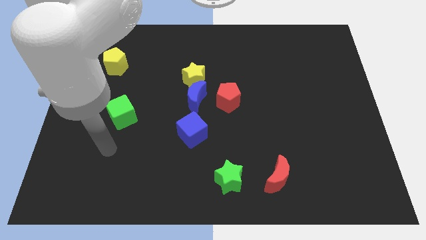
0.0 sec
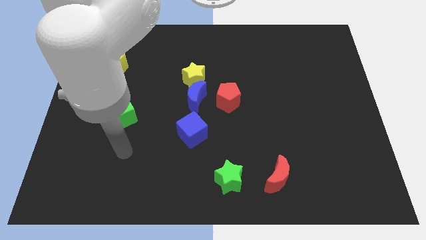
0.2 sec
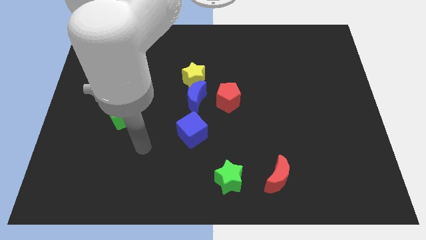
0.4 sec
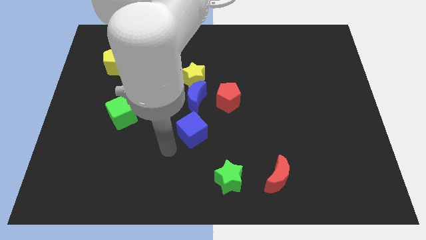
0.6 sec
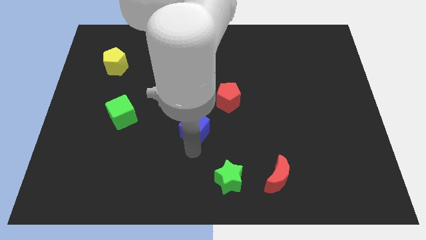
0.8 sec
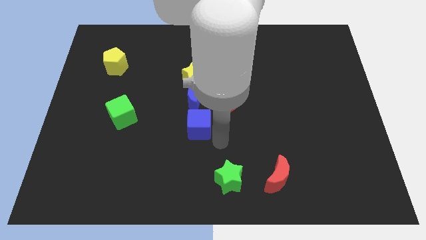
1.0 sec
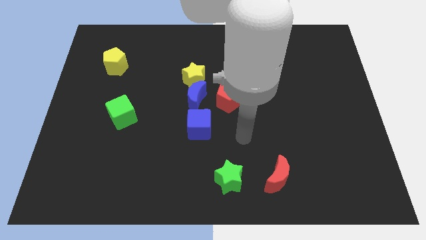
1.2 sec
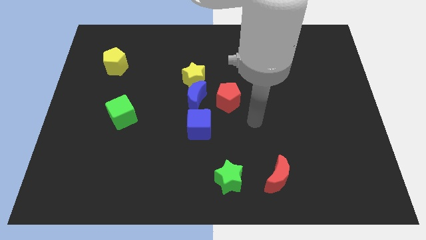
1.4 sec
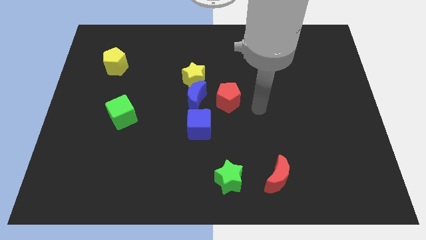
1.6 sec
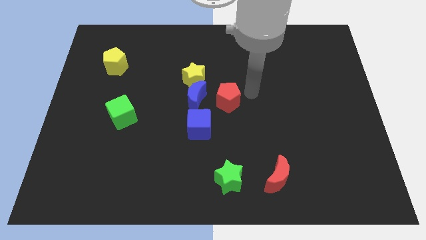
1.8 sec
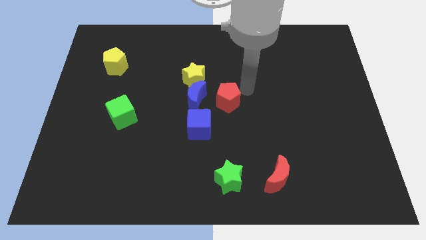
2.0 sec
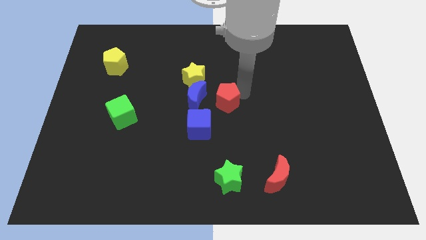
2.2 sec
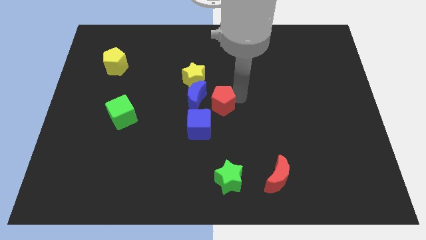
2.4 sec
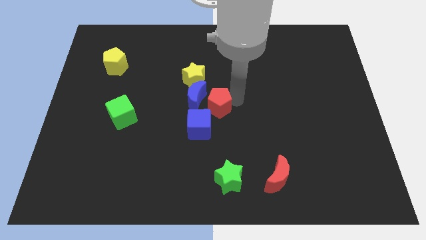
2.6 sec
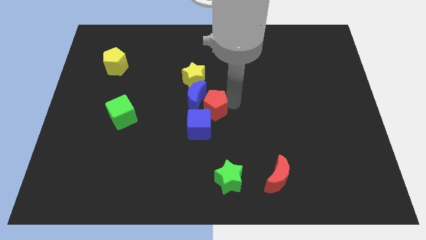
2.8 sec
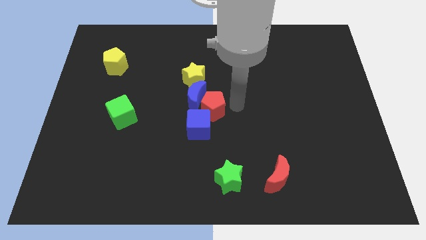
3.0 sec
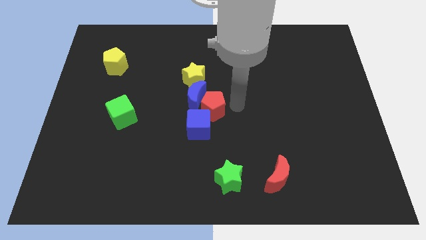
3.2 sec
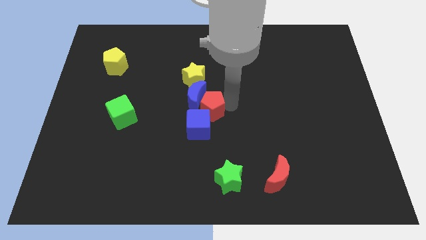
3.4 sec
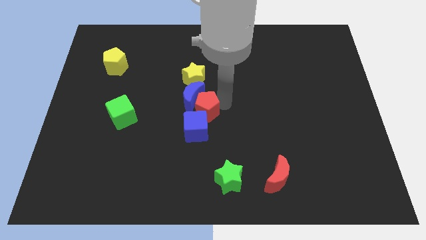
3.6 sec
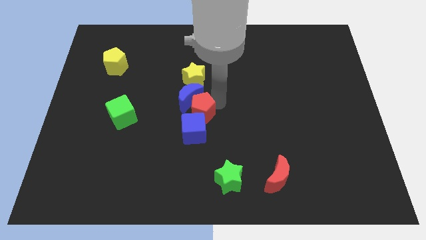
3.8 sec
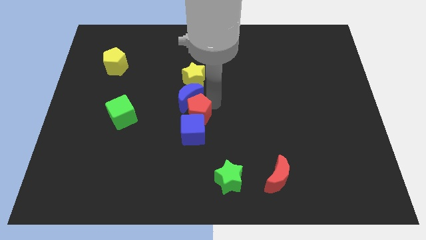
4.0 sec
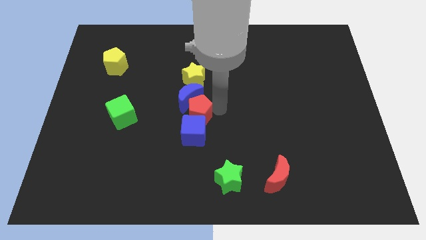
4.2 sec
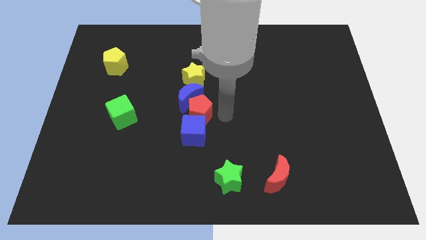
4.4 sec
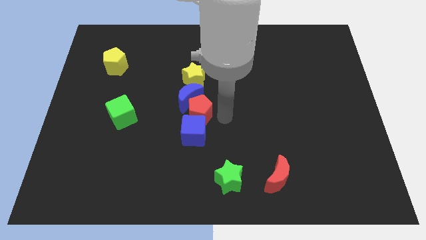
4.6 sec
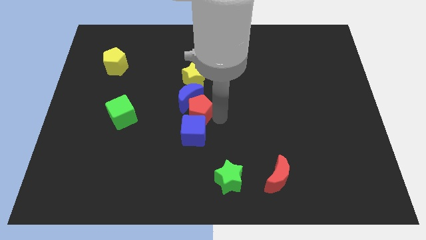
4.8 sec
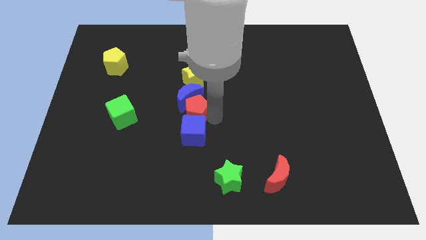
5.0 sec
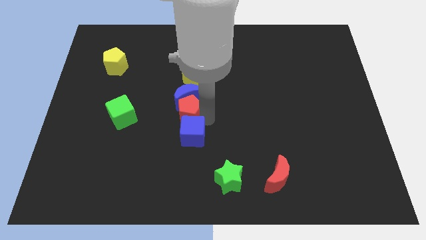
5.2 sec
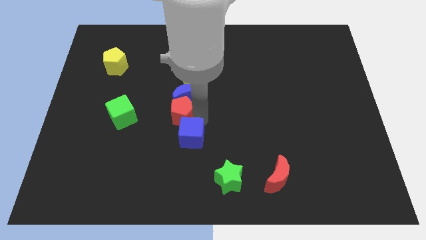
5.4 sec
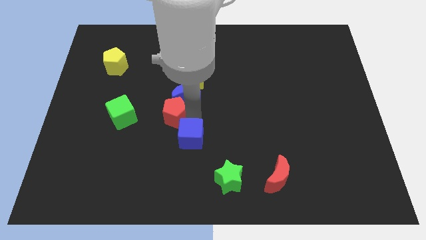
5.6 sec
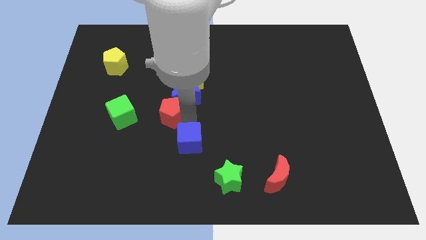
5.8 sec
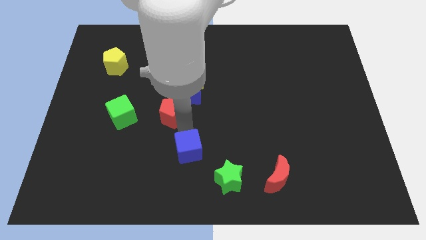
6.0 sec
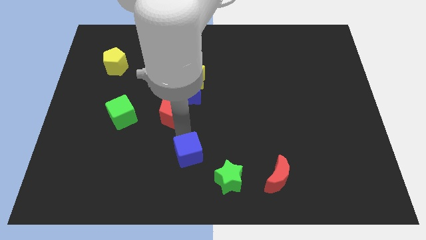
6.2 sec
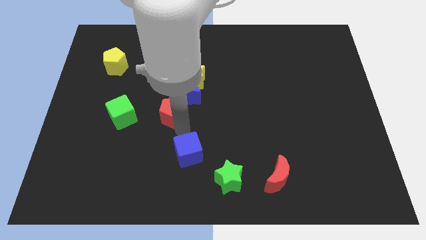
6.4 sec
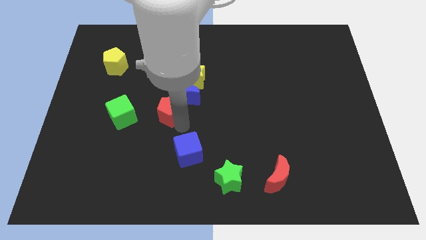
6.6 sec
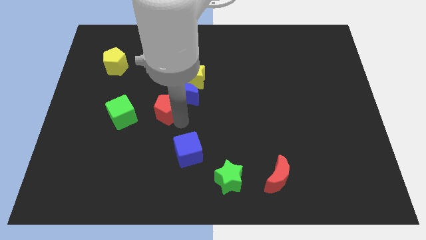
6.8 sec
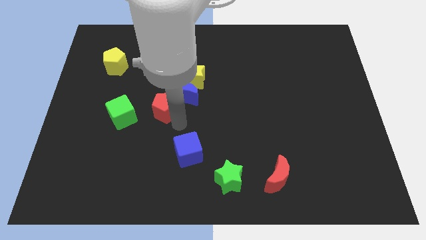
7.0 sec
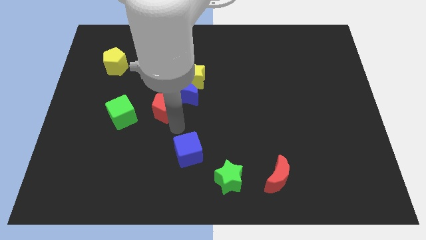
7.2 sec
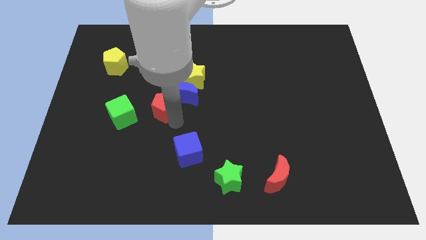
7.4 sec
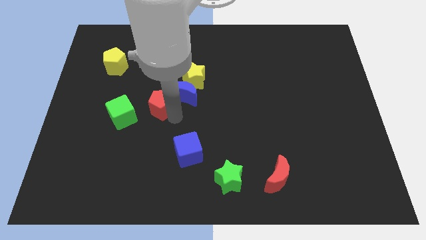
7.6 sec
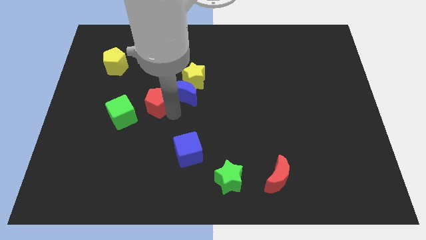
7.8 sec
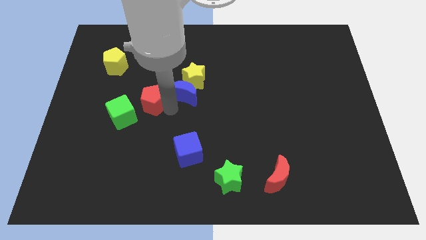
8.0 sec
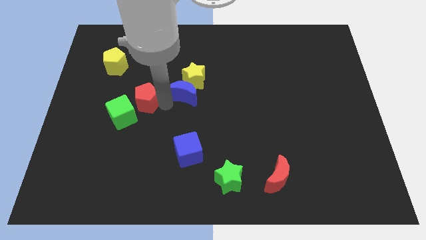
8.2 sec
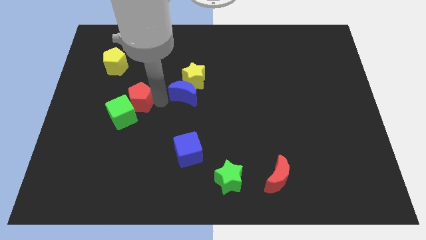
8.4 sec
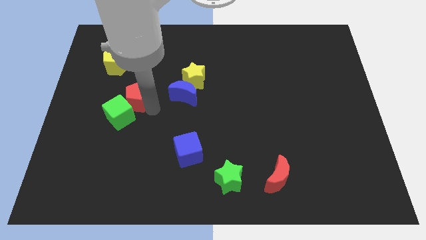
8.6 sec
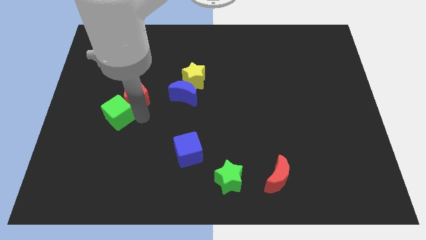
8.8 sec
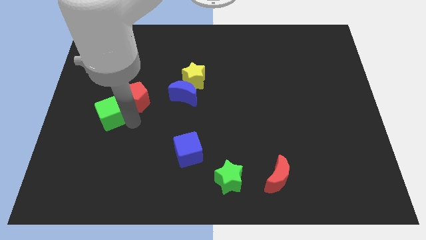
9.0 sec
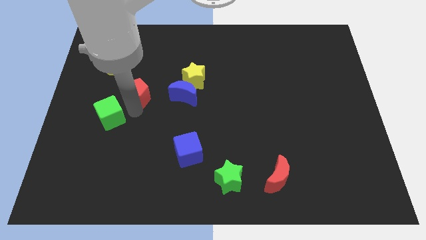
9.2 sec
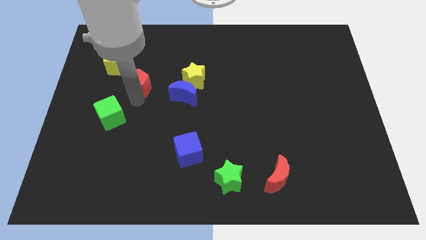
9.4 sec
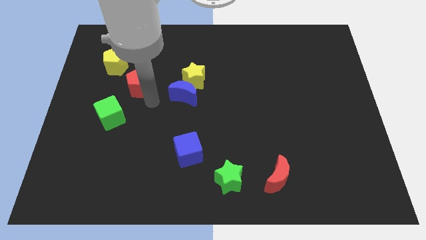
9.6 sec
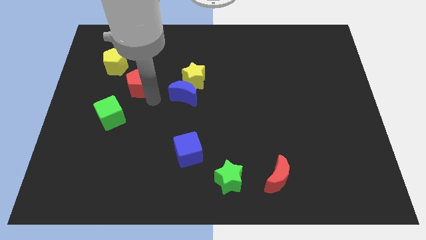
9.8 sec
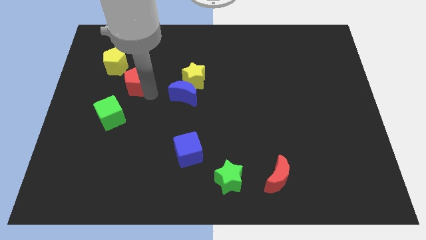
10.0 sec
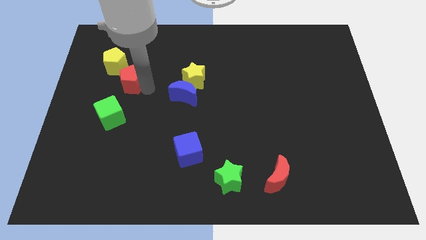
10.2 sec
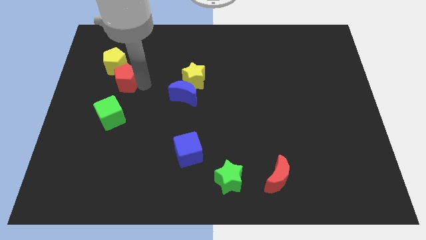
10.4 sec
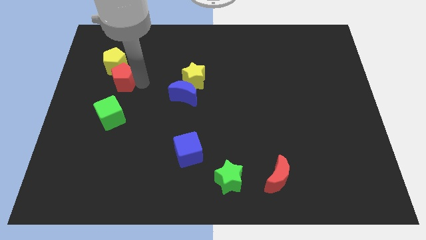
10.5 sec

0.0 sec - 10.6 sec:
move the red pentagon close to the yellow pentagon

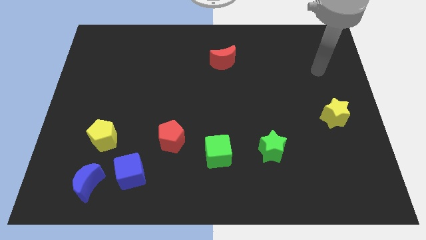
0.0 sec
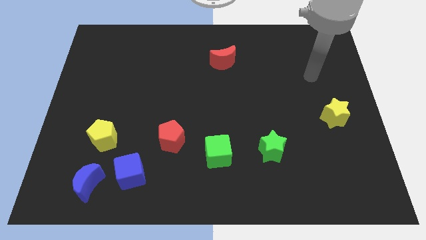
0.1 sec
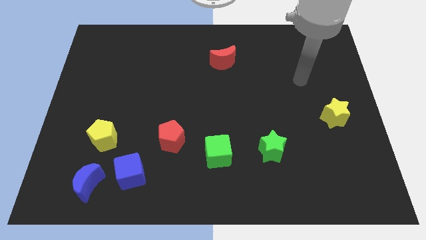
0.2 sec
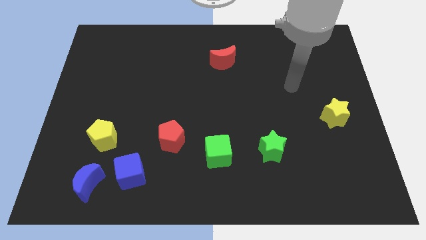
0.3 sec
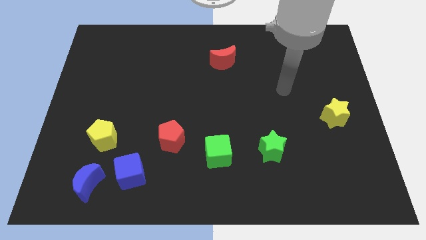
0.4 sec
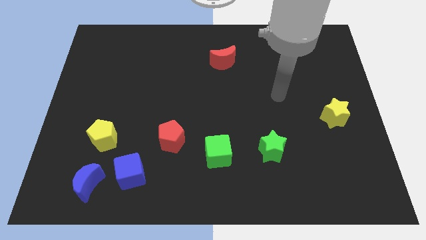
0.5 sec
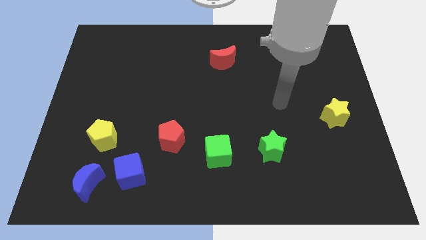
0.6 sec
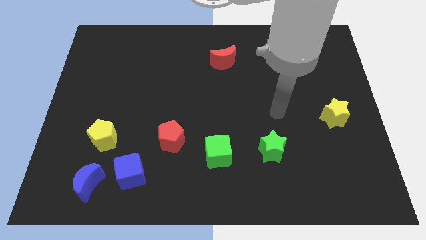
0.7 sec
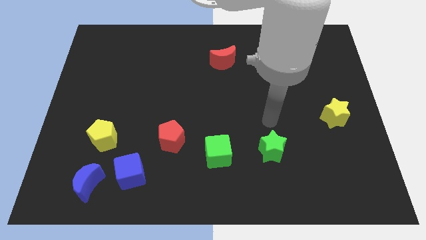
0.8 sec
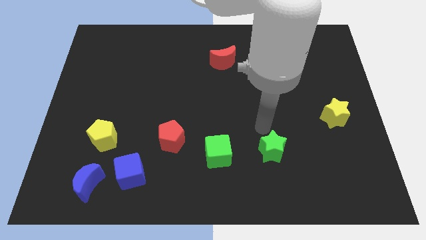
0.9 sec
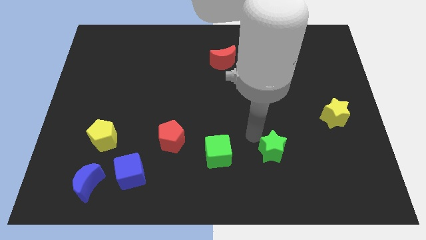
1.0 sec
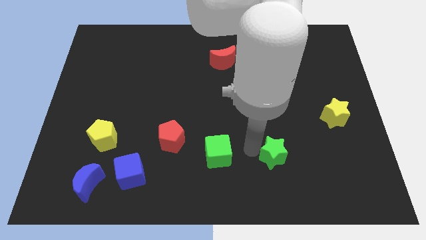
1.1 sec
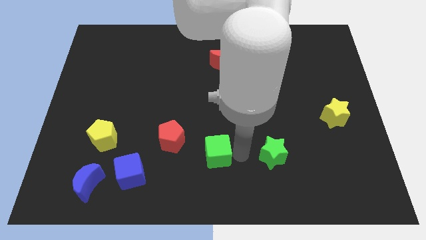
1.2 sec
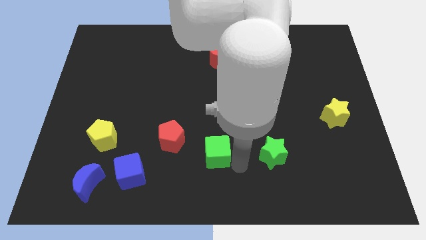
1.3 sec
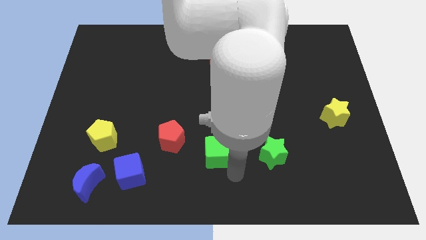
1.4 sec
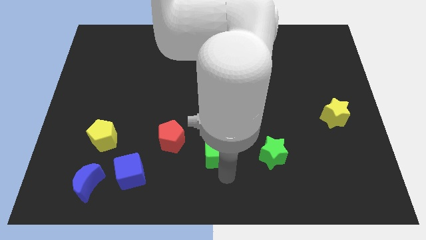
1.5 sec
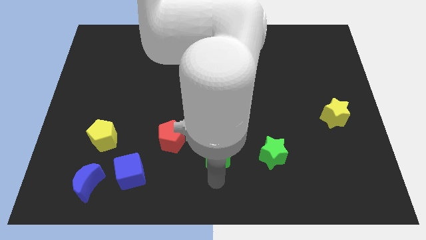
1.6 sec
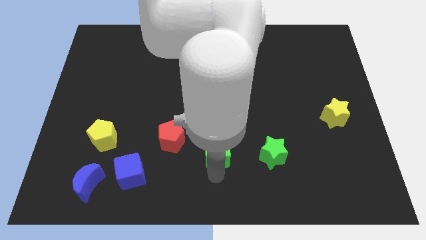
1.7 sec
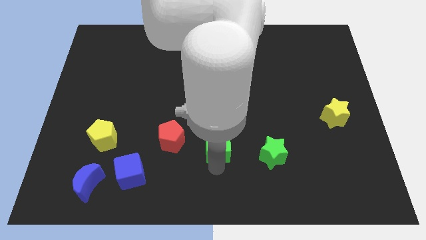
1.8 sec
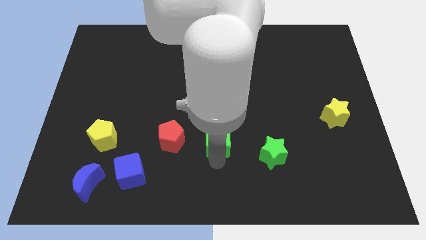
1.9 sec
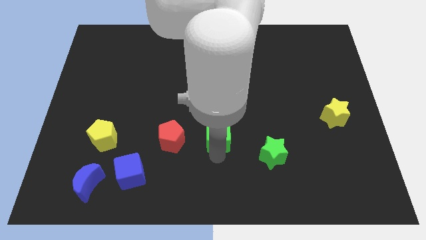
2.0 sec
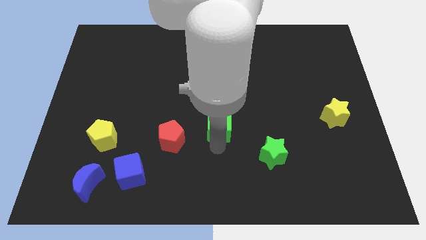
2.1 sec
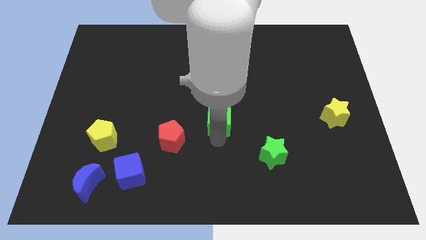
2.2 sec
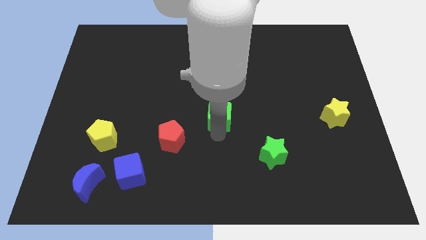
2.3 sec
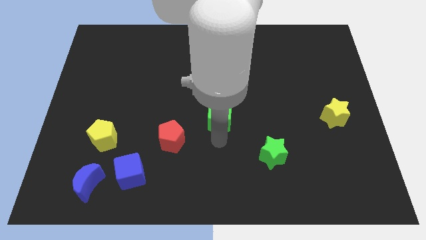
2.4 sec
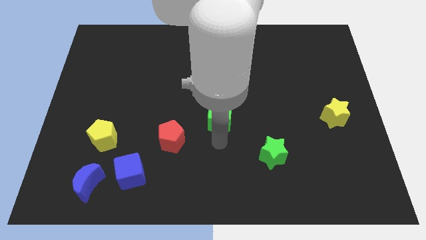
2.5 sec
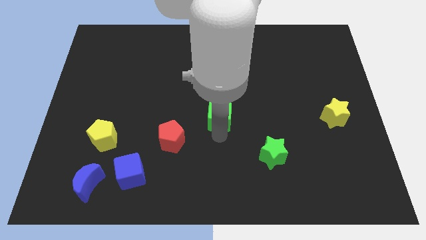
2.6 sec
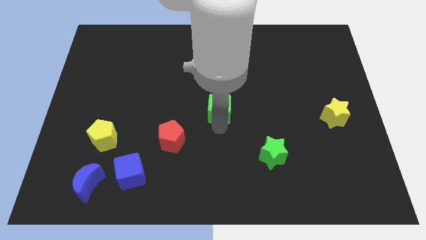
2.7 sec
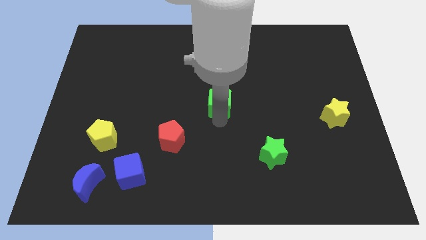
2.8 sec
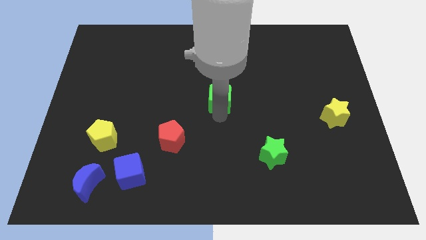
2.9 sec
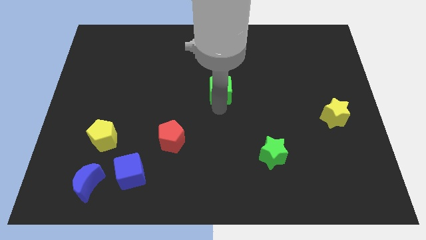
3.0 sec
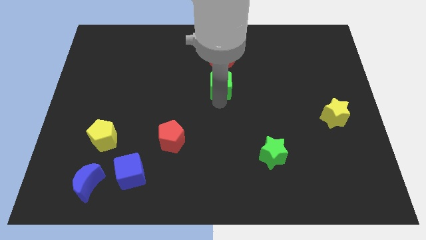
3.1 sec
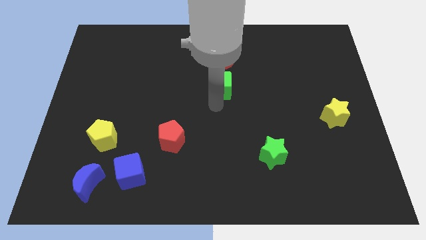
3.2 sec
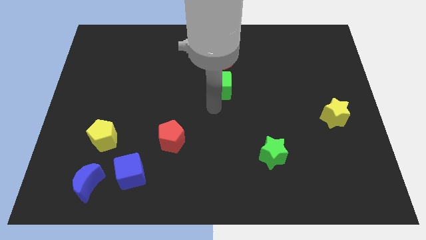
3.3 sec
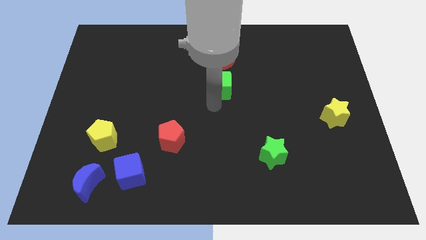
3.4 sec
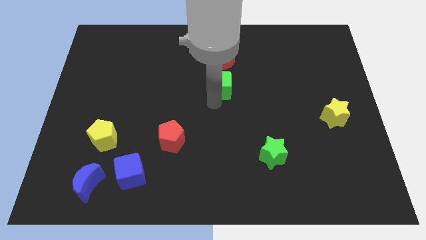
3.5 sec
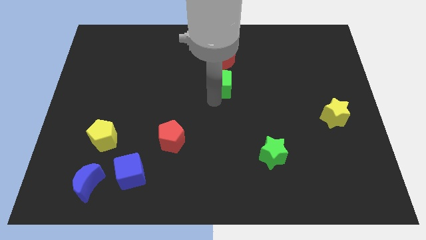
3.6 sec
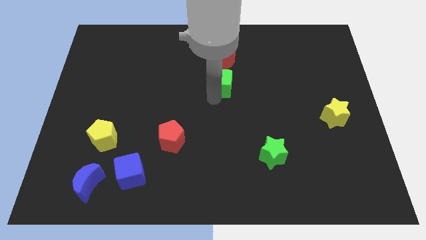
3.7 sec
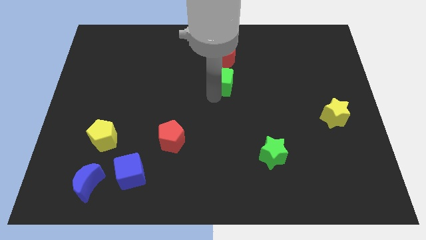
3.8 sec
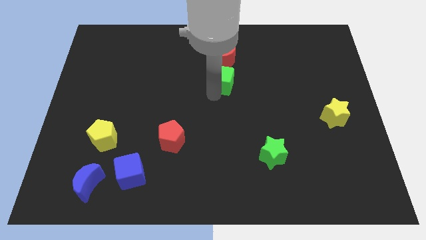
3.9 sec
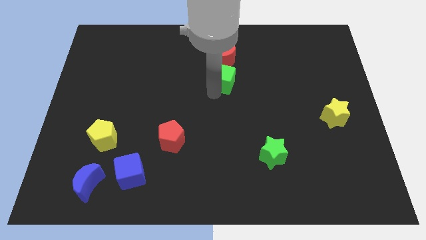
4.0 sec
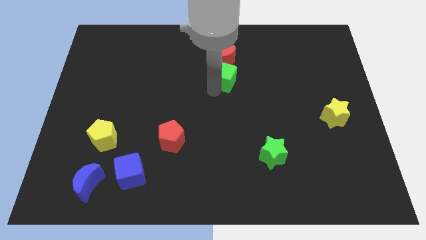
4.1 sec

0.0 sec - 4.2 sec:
move the green cube to the red moon
